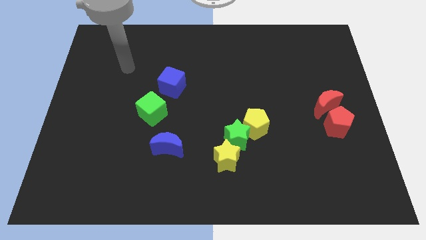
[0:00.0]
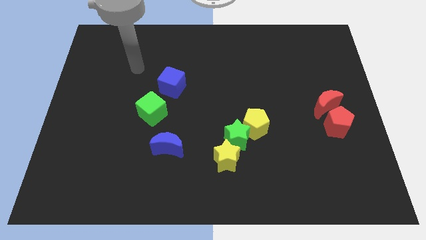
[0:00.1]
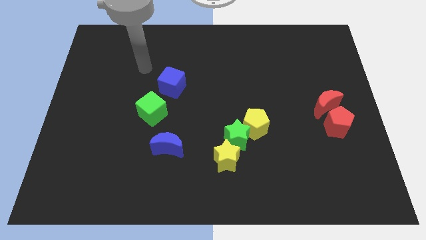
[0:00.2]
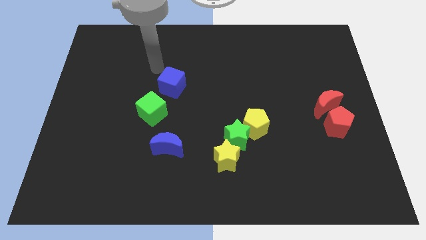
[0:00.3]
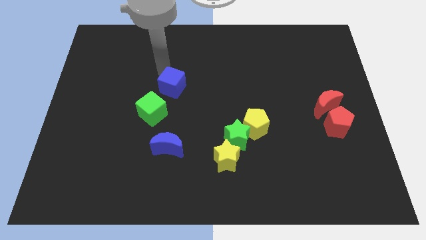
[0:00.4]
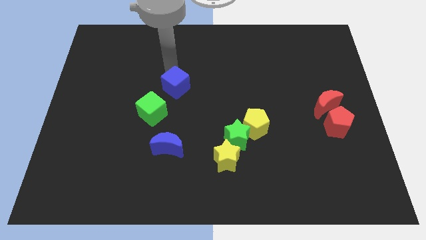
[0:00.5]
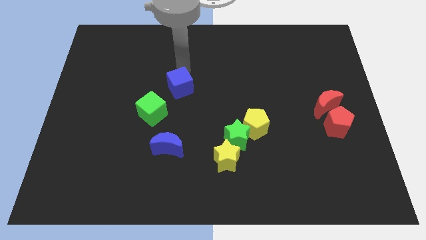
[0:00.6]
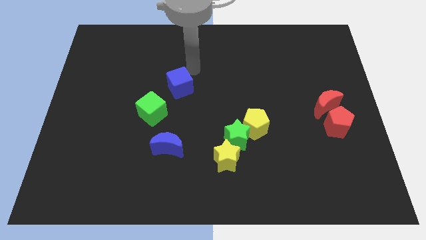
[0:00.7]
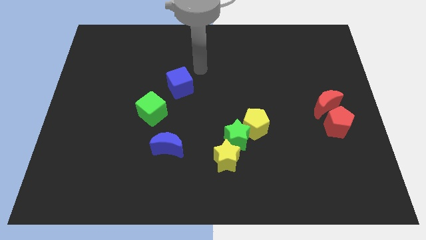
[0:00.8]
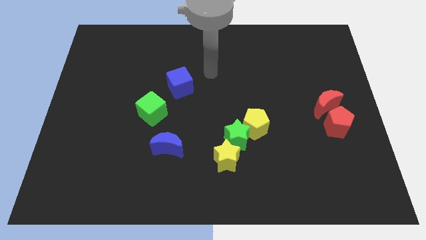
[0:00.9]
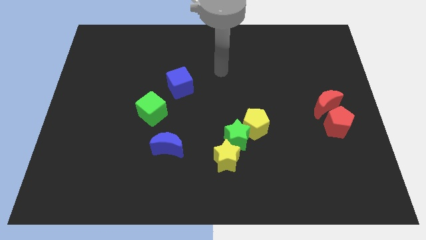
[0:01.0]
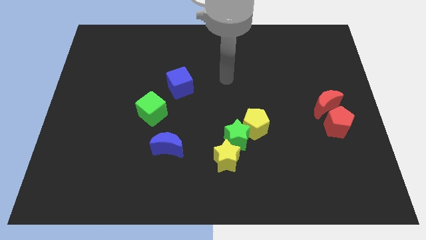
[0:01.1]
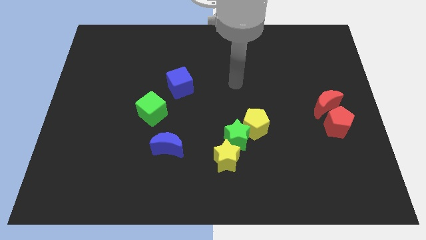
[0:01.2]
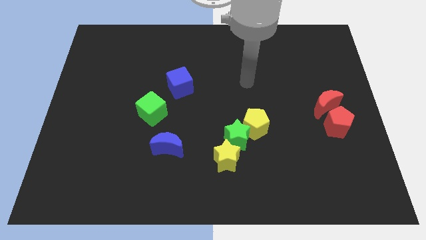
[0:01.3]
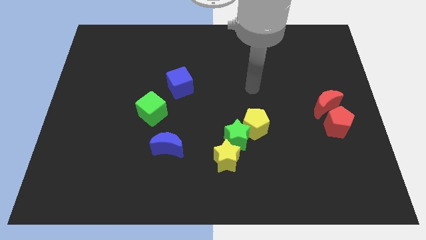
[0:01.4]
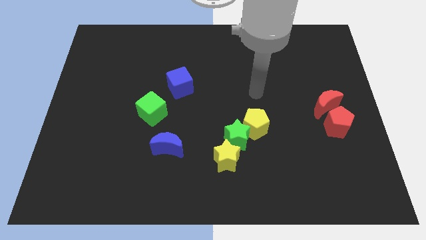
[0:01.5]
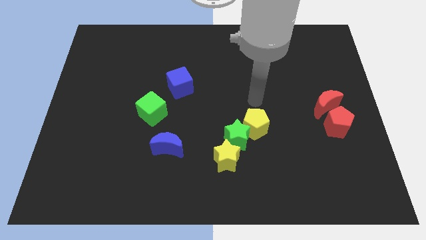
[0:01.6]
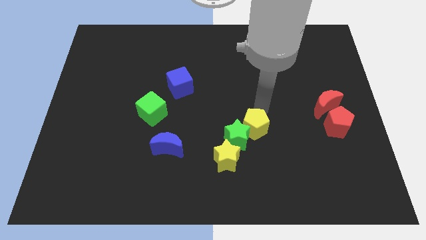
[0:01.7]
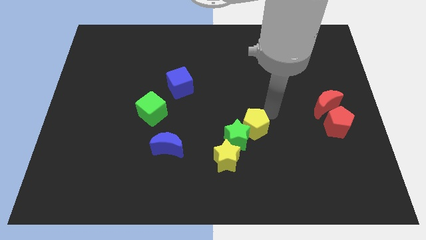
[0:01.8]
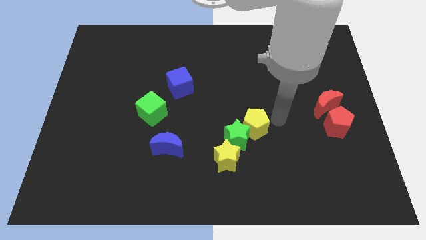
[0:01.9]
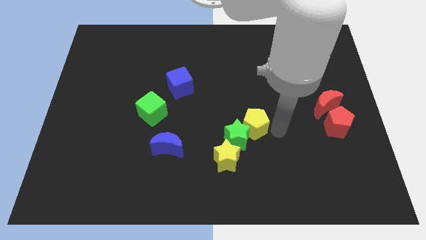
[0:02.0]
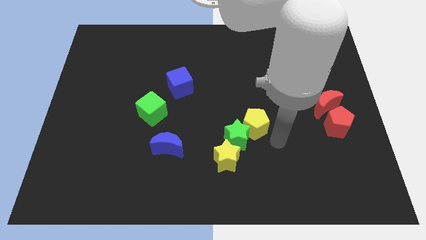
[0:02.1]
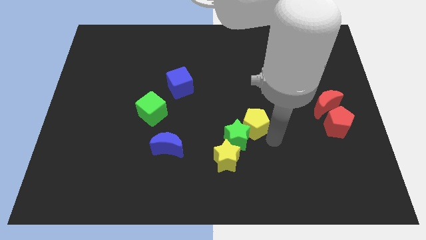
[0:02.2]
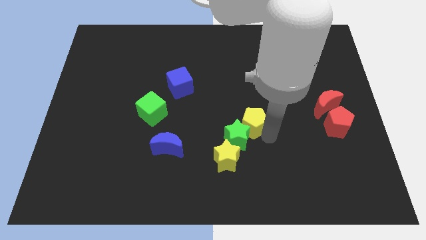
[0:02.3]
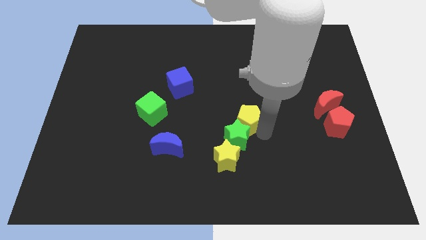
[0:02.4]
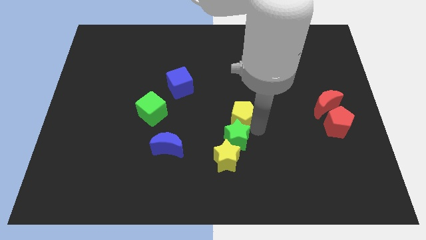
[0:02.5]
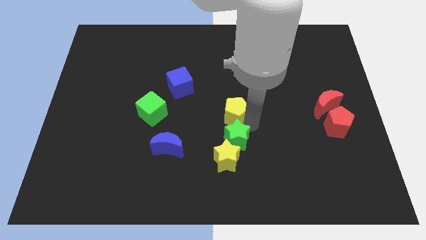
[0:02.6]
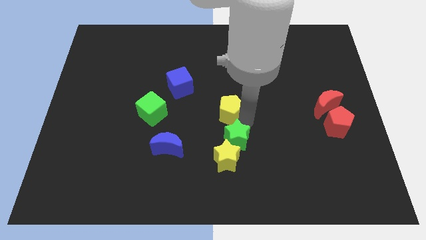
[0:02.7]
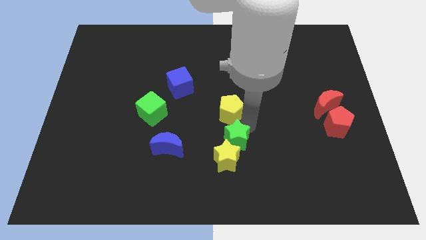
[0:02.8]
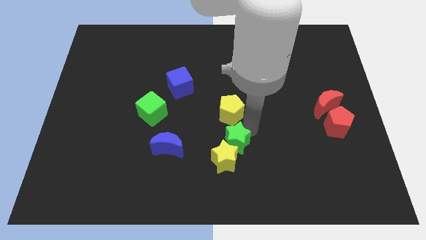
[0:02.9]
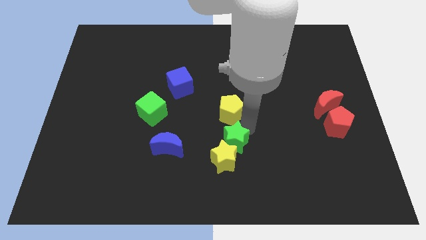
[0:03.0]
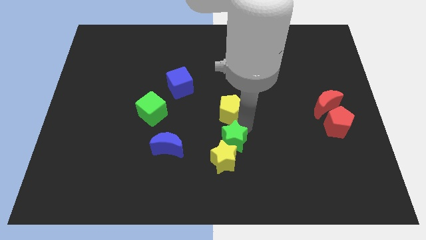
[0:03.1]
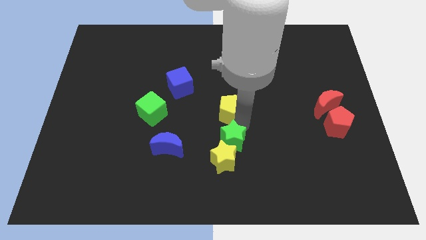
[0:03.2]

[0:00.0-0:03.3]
move the yellow pentagon slightly up and left

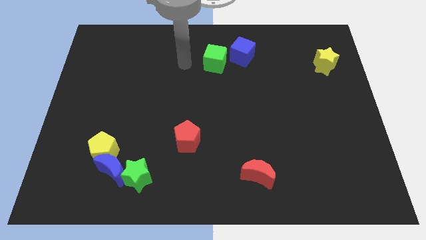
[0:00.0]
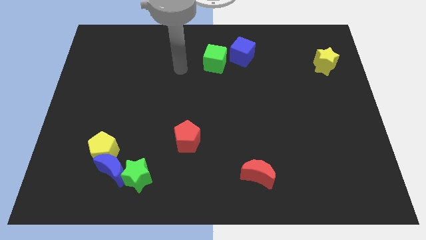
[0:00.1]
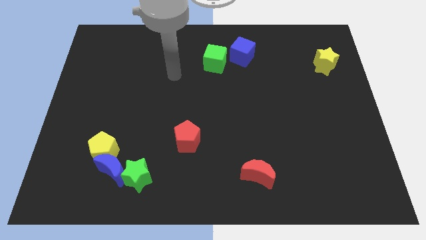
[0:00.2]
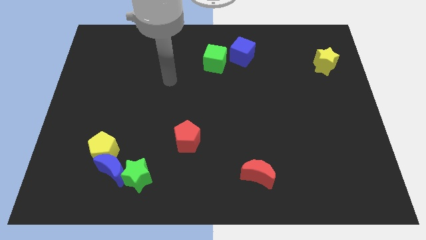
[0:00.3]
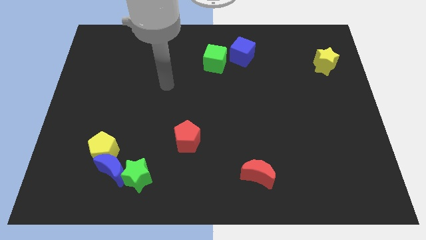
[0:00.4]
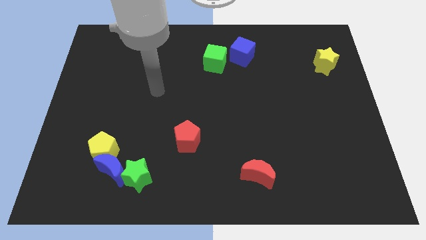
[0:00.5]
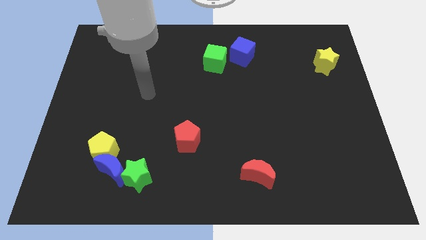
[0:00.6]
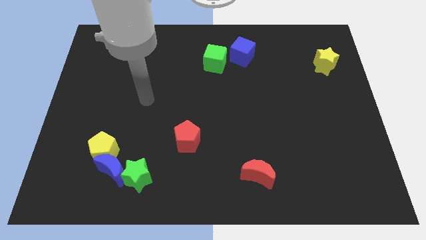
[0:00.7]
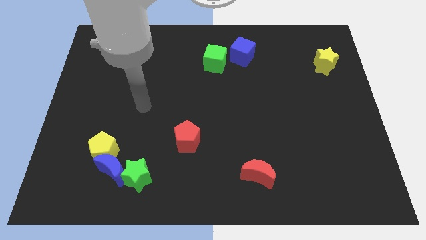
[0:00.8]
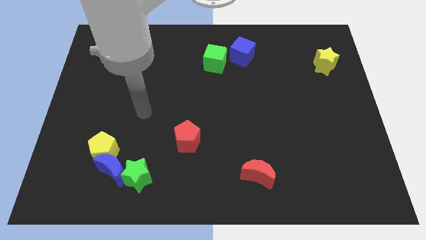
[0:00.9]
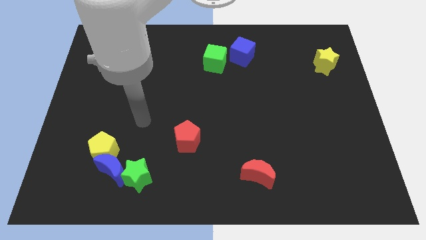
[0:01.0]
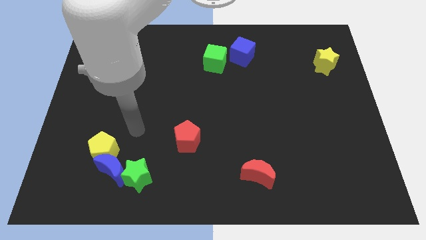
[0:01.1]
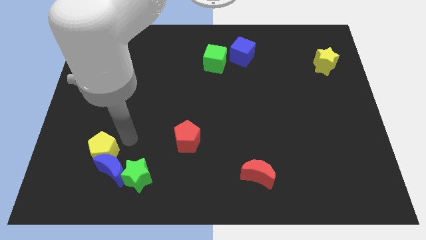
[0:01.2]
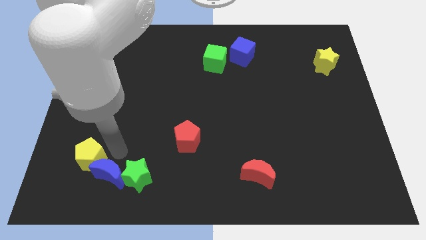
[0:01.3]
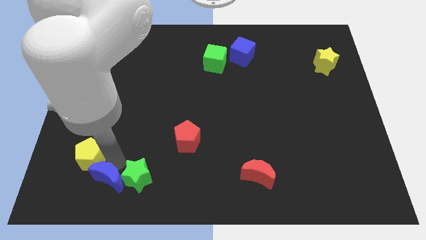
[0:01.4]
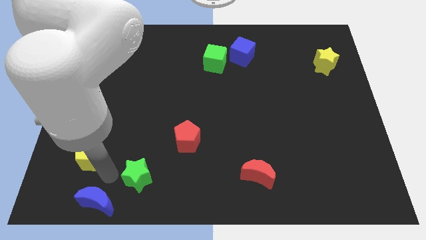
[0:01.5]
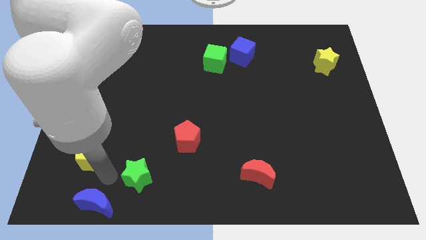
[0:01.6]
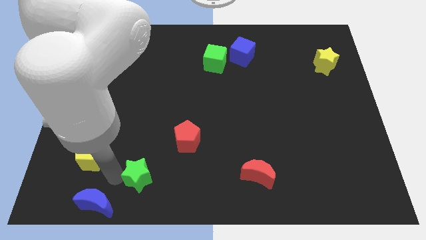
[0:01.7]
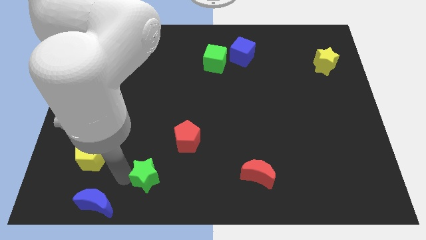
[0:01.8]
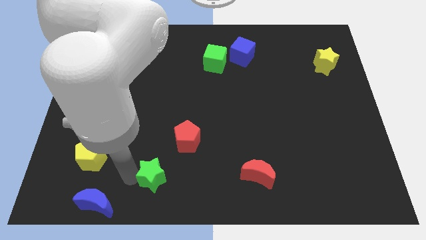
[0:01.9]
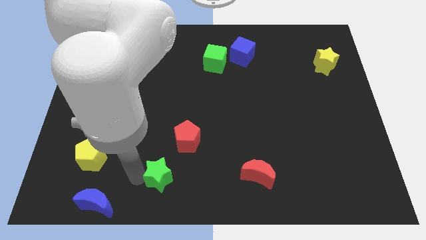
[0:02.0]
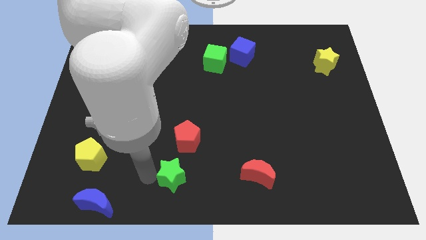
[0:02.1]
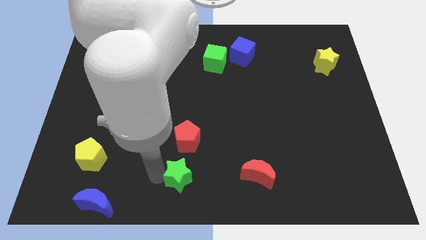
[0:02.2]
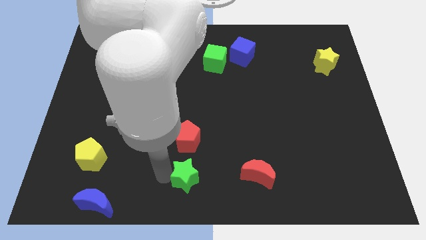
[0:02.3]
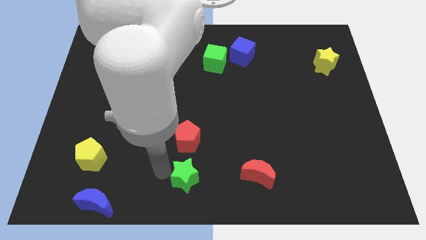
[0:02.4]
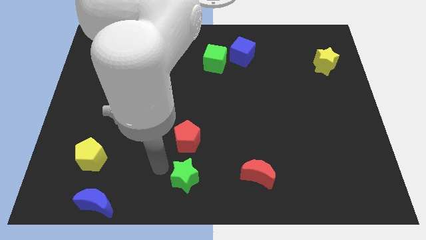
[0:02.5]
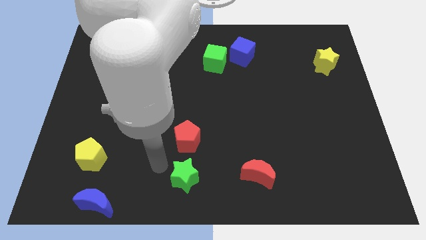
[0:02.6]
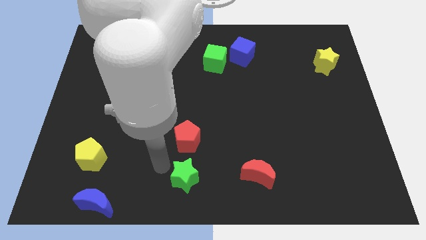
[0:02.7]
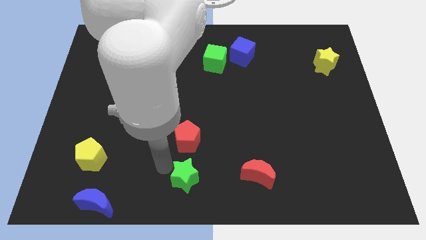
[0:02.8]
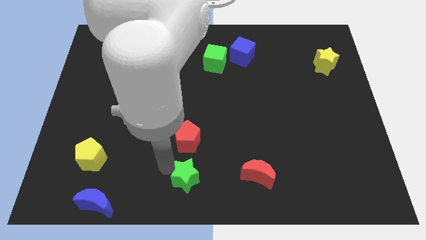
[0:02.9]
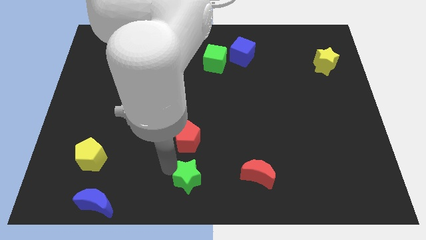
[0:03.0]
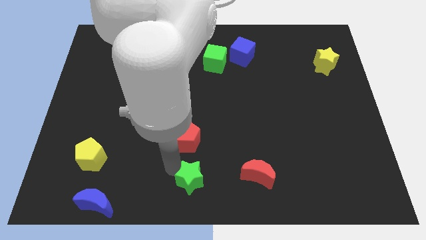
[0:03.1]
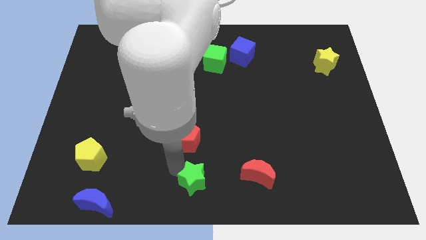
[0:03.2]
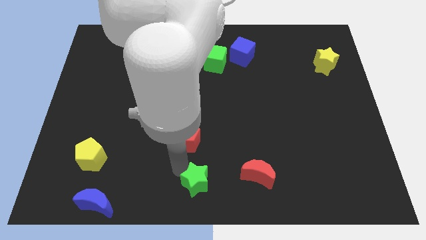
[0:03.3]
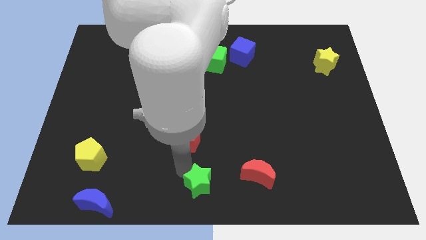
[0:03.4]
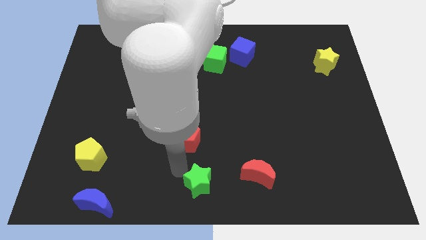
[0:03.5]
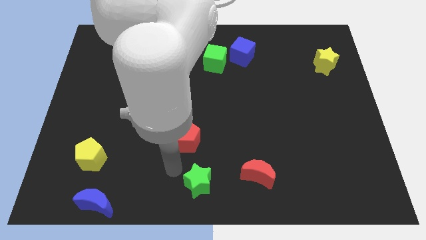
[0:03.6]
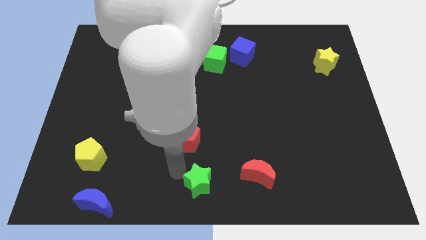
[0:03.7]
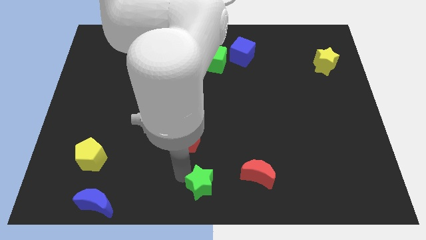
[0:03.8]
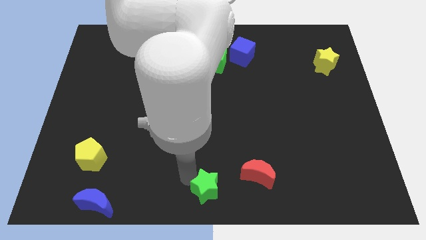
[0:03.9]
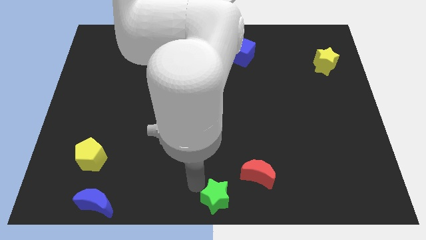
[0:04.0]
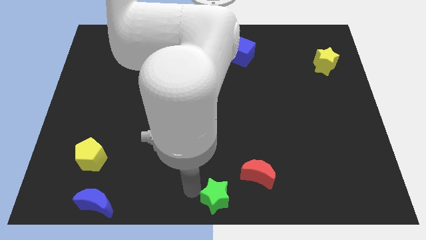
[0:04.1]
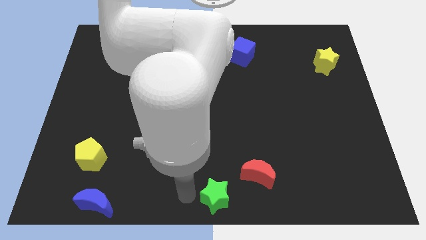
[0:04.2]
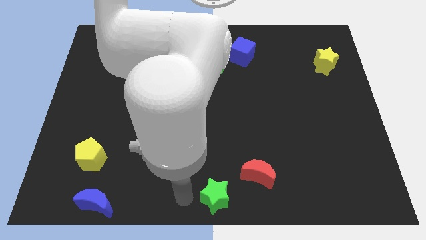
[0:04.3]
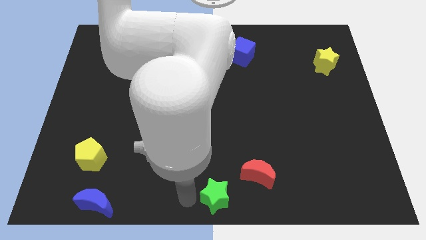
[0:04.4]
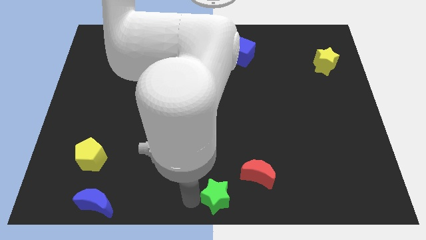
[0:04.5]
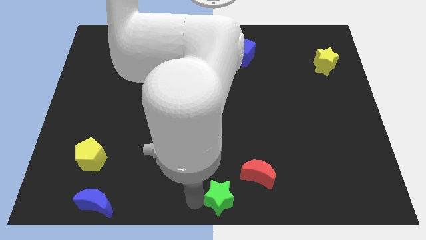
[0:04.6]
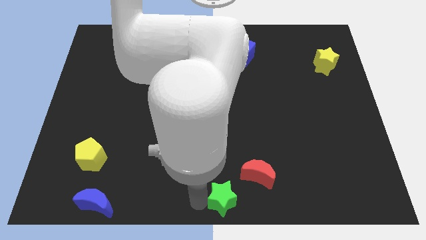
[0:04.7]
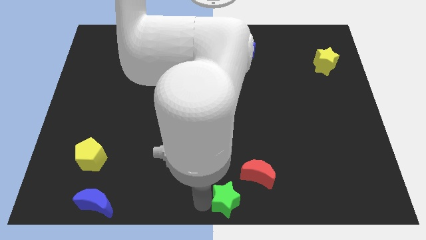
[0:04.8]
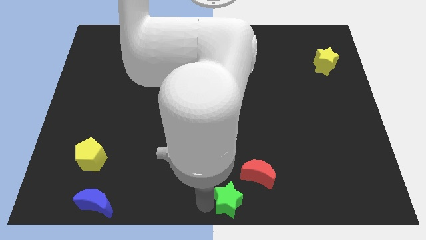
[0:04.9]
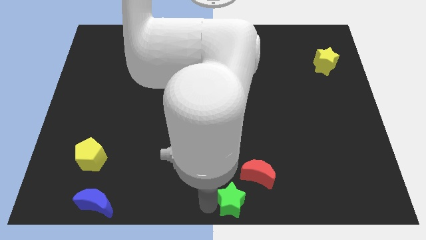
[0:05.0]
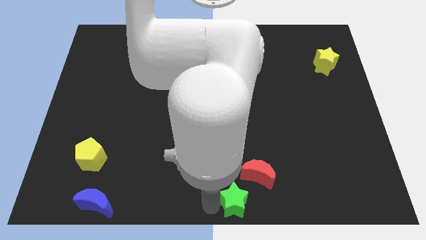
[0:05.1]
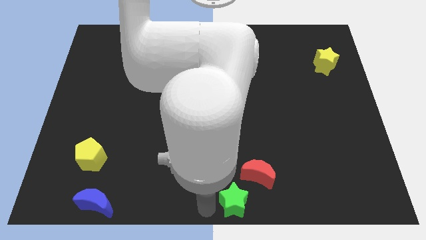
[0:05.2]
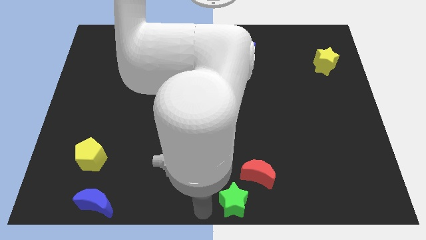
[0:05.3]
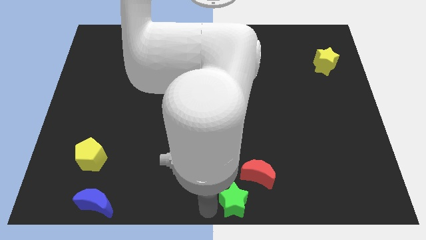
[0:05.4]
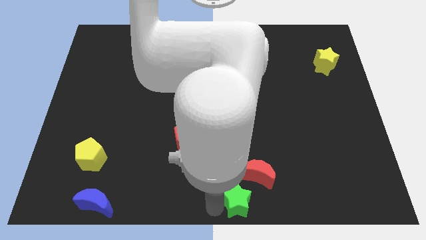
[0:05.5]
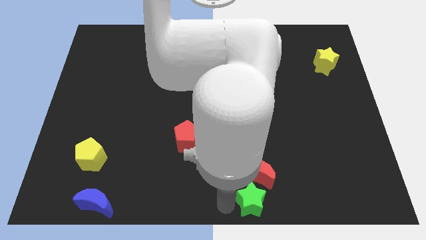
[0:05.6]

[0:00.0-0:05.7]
move the green star to the right
